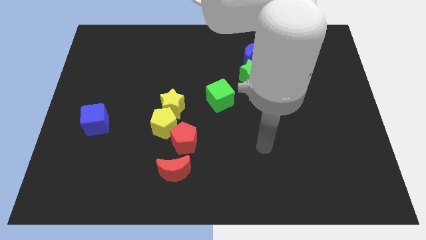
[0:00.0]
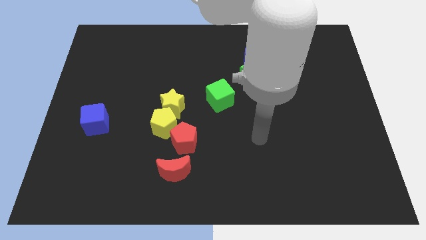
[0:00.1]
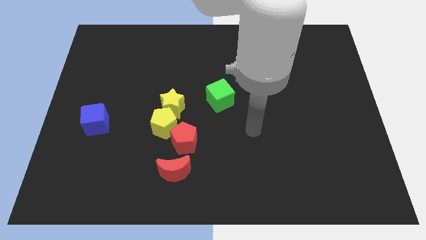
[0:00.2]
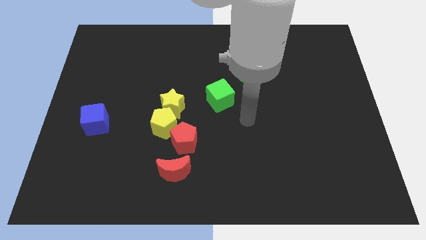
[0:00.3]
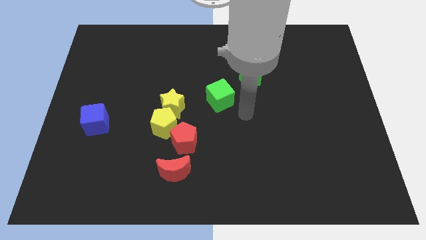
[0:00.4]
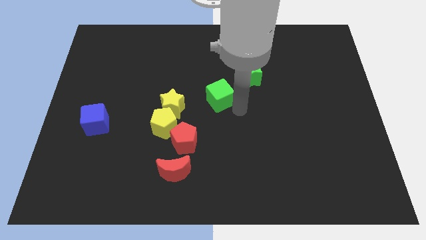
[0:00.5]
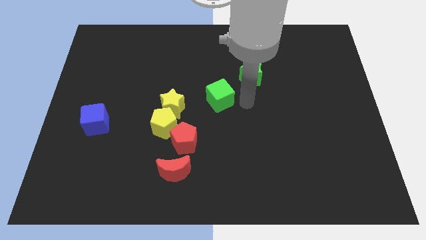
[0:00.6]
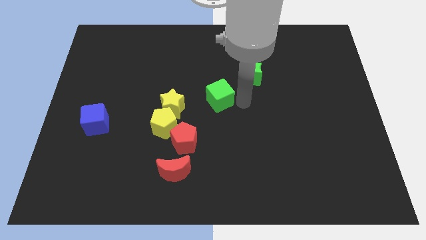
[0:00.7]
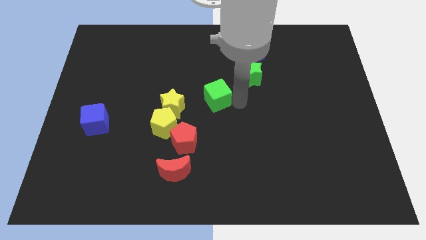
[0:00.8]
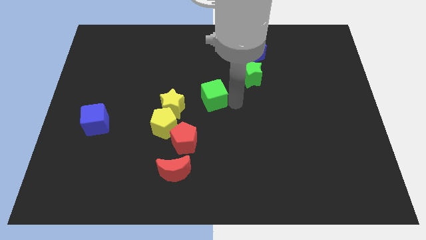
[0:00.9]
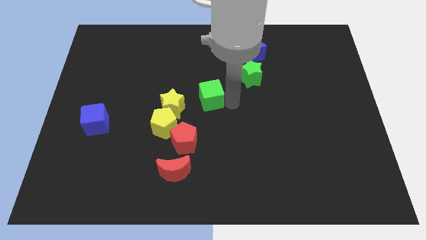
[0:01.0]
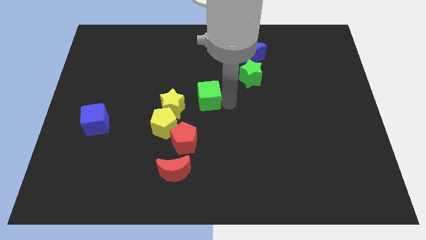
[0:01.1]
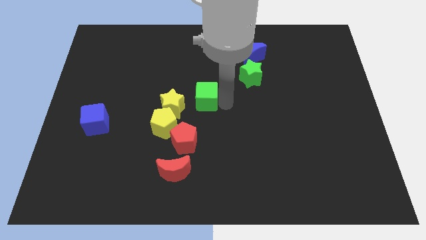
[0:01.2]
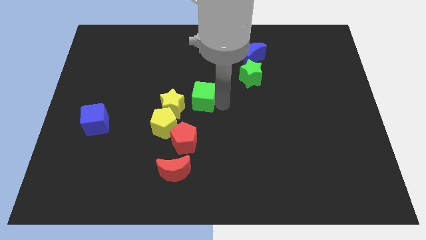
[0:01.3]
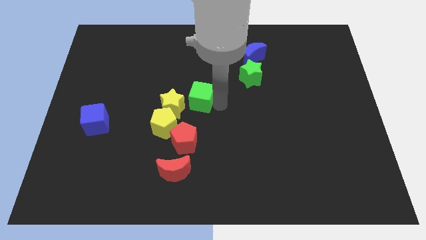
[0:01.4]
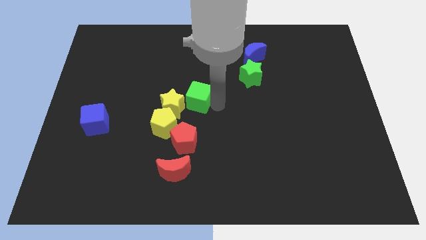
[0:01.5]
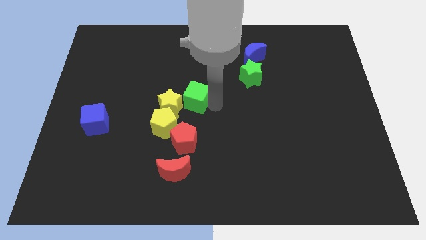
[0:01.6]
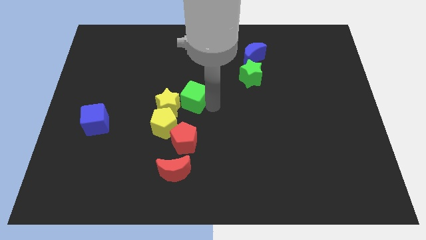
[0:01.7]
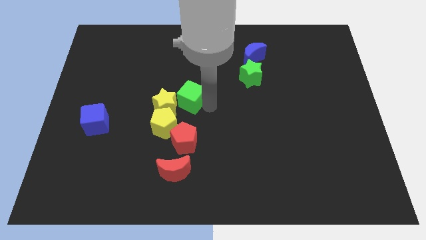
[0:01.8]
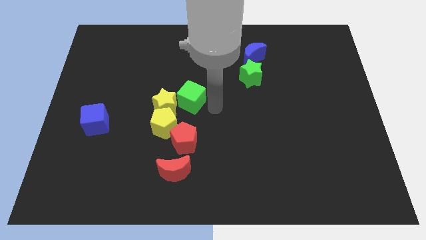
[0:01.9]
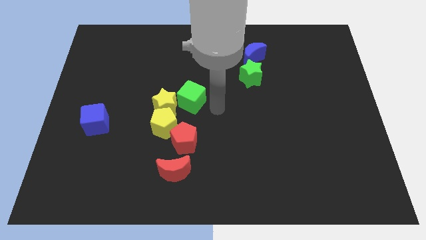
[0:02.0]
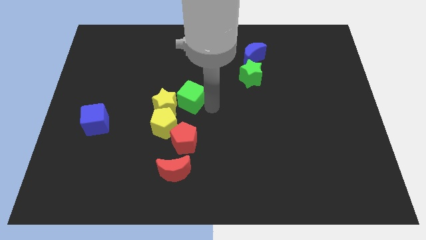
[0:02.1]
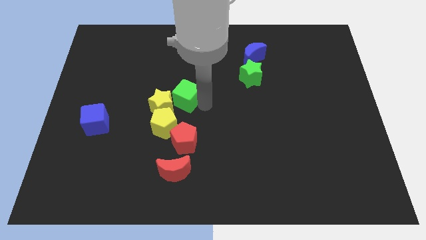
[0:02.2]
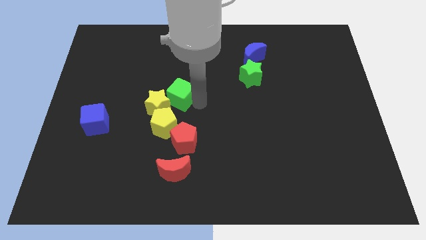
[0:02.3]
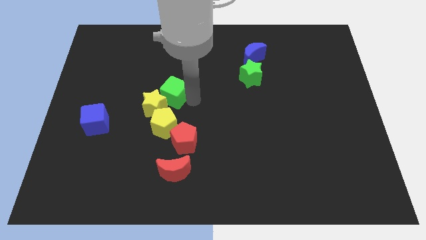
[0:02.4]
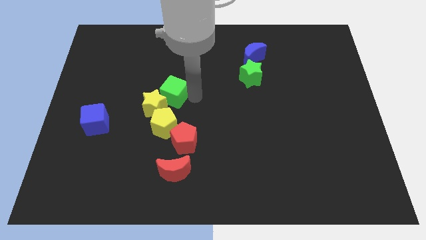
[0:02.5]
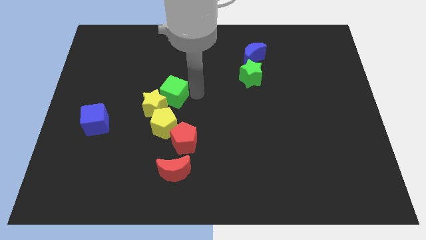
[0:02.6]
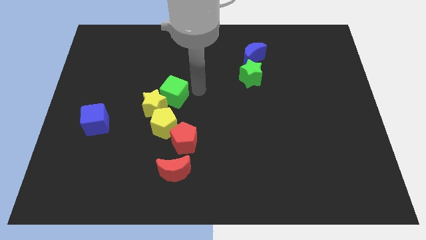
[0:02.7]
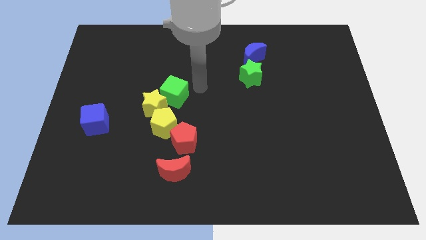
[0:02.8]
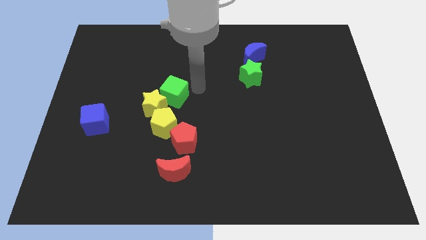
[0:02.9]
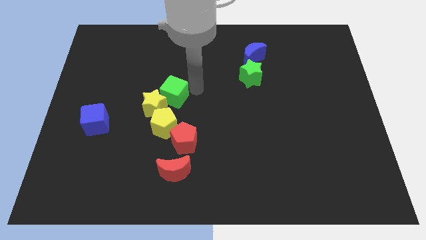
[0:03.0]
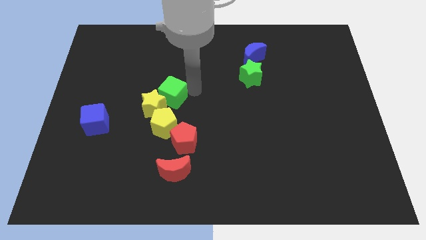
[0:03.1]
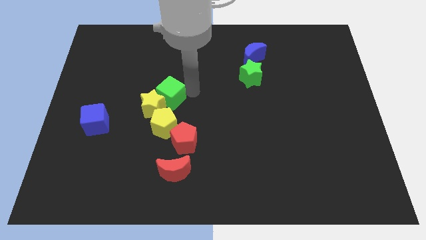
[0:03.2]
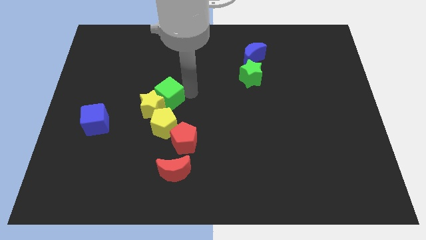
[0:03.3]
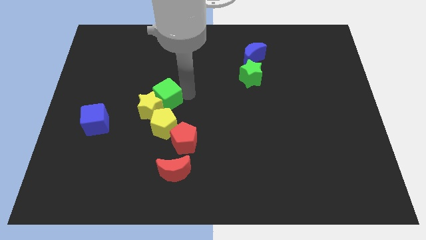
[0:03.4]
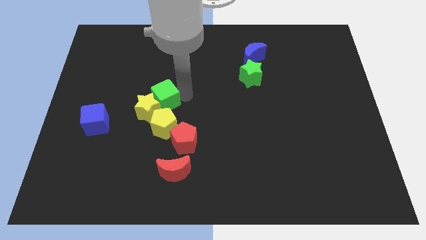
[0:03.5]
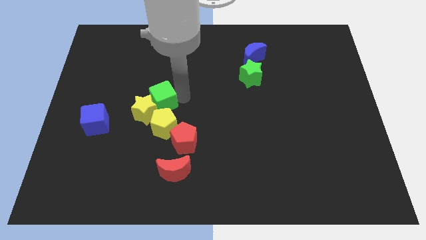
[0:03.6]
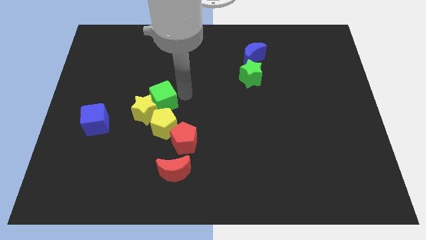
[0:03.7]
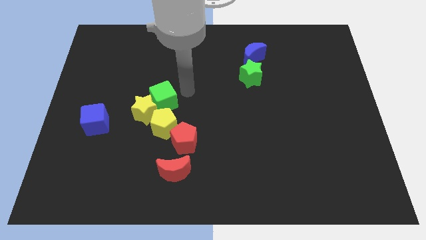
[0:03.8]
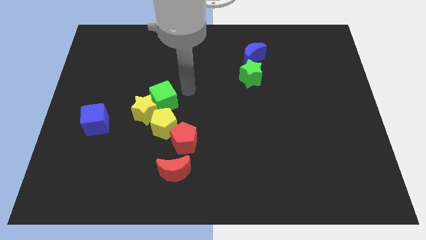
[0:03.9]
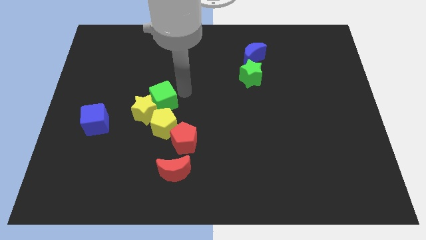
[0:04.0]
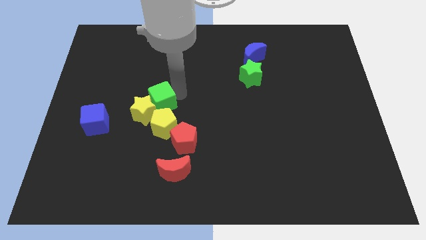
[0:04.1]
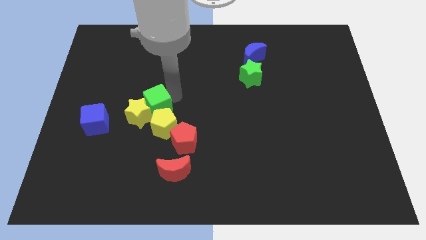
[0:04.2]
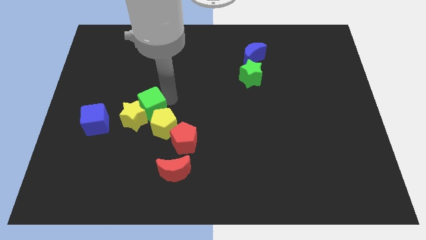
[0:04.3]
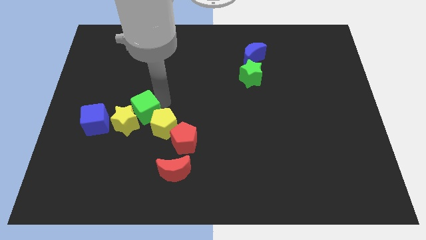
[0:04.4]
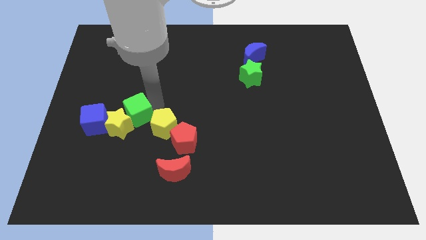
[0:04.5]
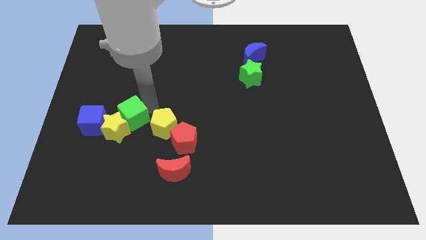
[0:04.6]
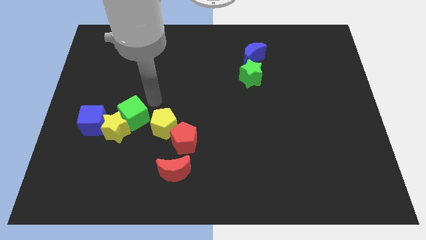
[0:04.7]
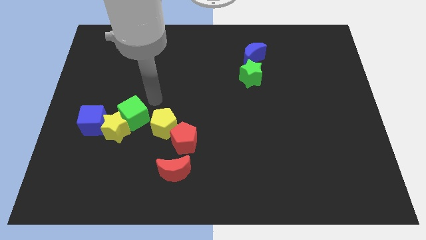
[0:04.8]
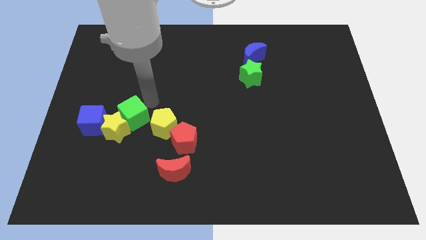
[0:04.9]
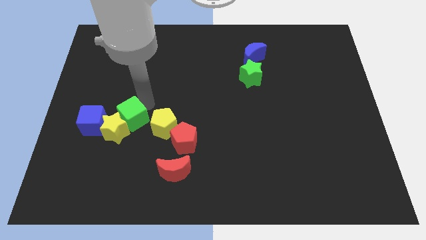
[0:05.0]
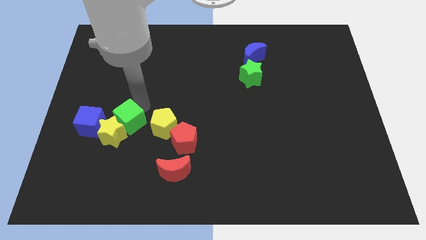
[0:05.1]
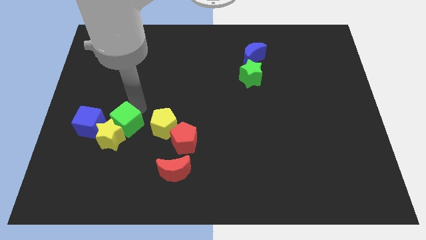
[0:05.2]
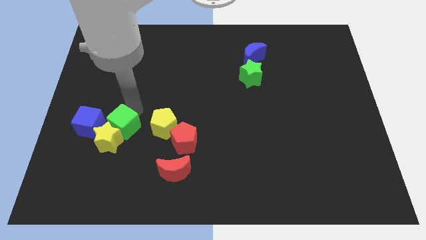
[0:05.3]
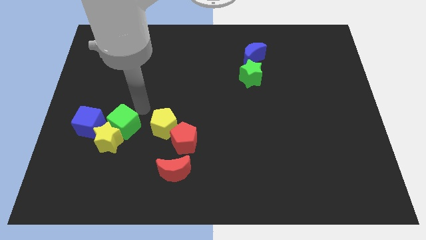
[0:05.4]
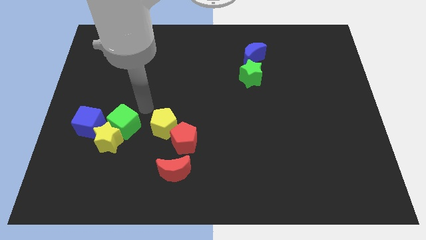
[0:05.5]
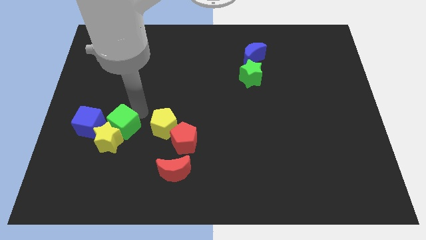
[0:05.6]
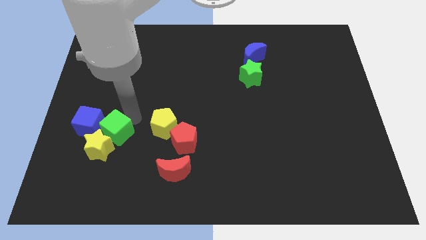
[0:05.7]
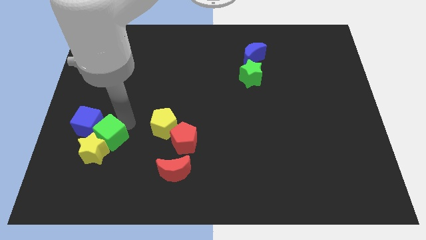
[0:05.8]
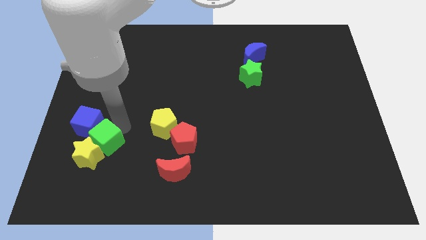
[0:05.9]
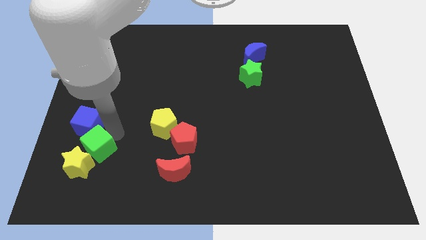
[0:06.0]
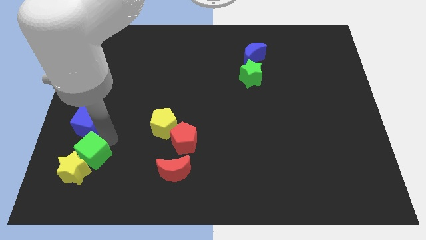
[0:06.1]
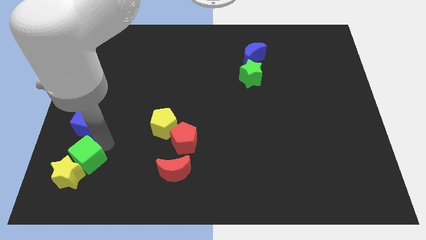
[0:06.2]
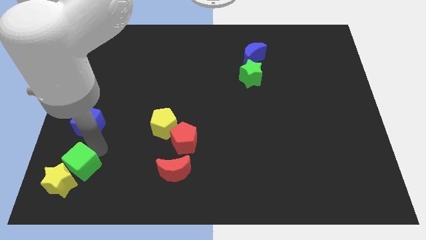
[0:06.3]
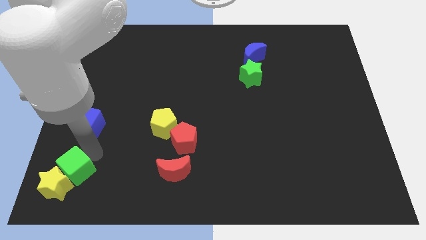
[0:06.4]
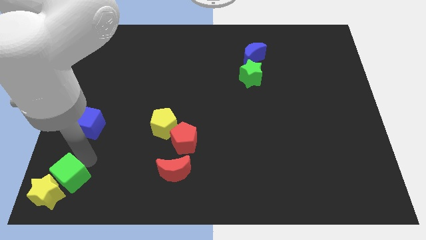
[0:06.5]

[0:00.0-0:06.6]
put the green cube to the bottom left of the board
